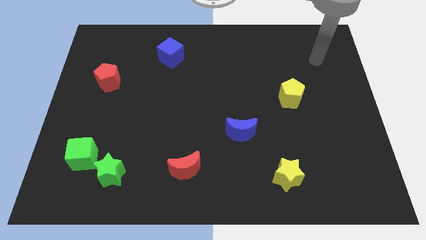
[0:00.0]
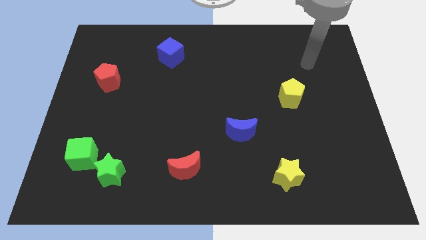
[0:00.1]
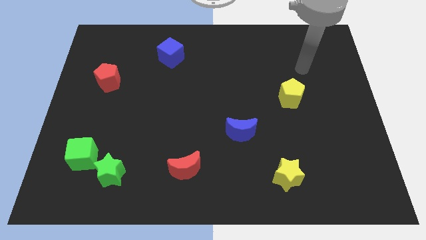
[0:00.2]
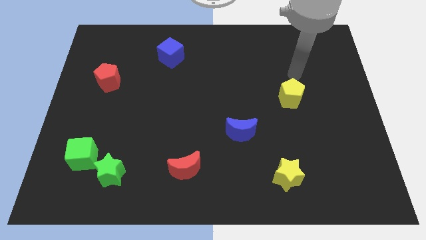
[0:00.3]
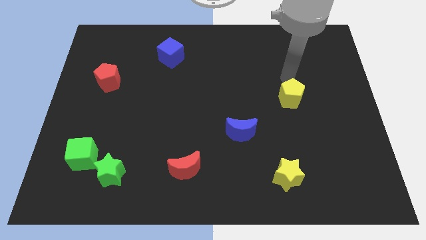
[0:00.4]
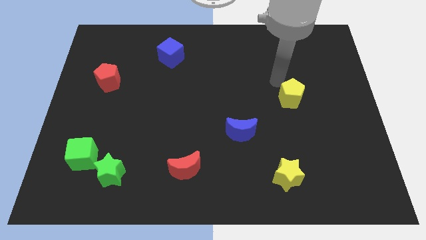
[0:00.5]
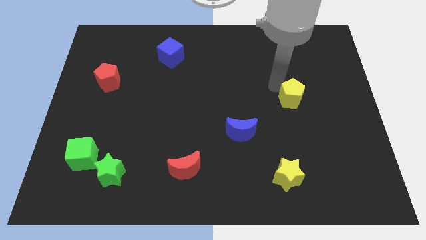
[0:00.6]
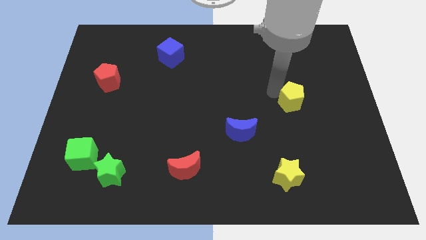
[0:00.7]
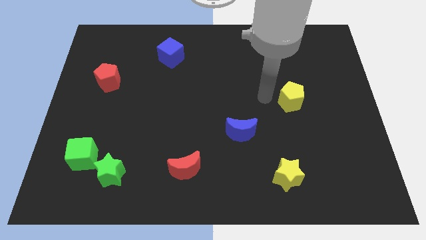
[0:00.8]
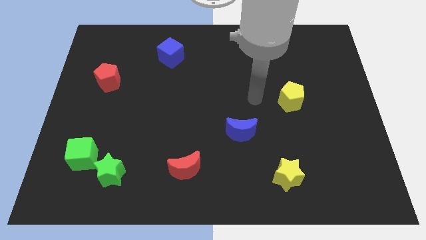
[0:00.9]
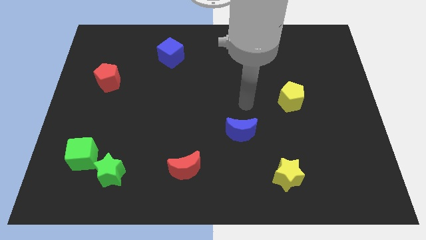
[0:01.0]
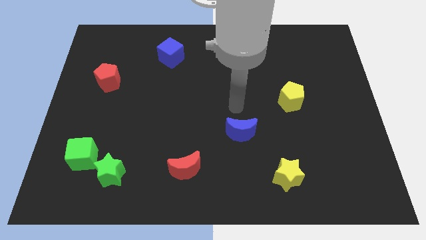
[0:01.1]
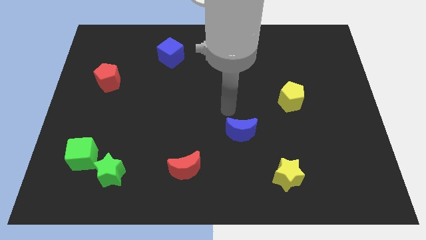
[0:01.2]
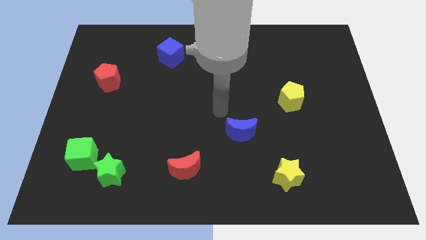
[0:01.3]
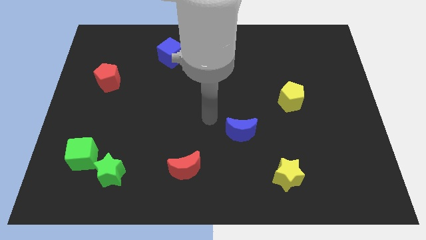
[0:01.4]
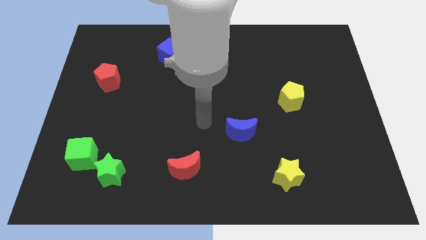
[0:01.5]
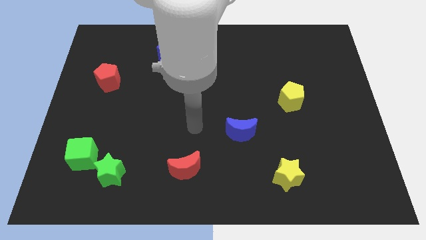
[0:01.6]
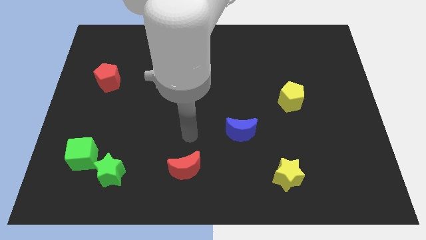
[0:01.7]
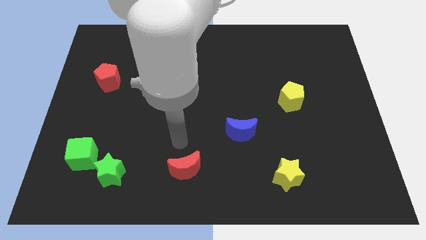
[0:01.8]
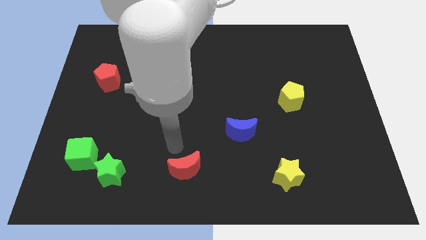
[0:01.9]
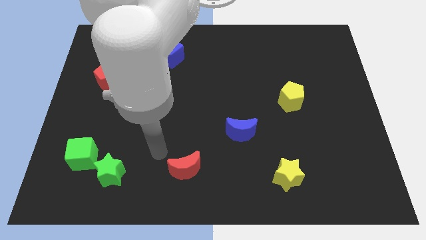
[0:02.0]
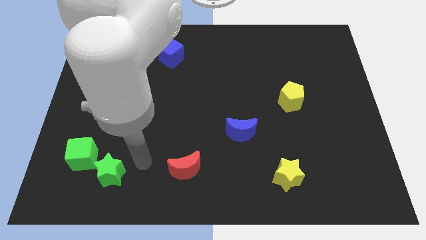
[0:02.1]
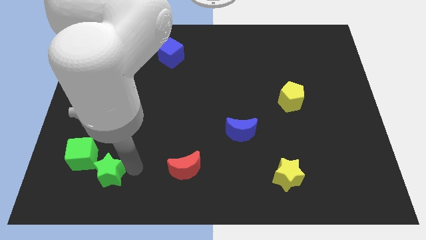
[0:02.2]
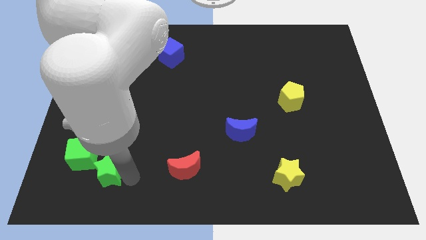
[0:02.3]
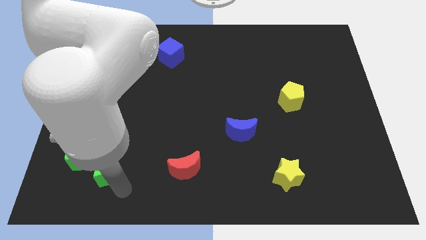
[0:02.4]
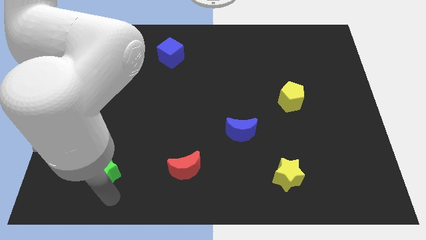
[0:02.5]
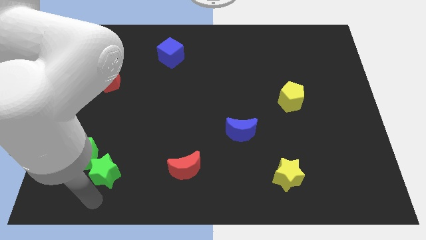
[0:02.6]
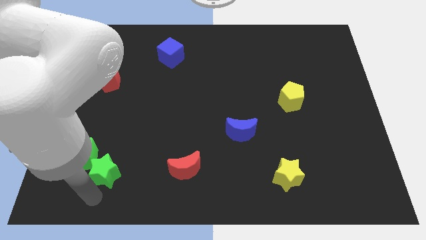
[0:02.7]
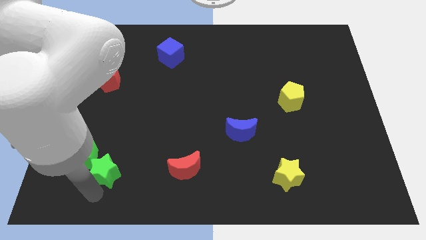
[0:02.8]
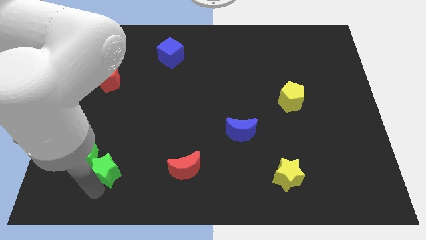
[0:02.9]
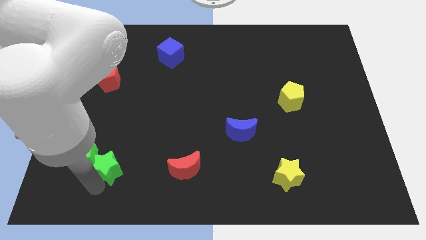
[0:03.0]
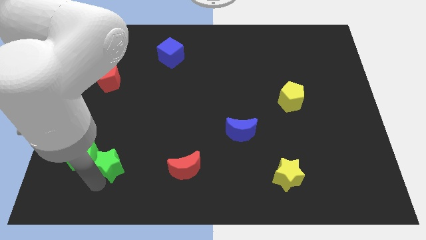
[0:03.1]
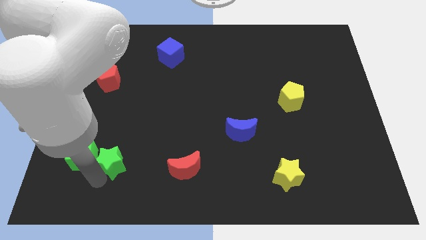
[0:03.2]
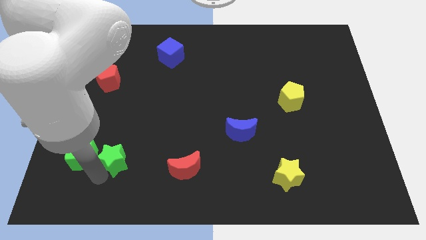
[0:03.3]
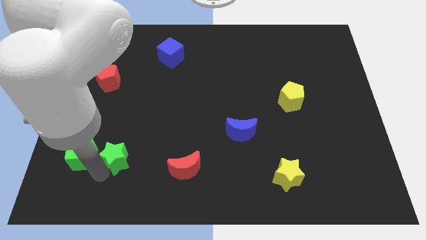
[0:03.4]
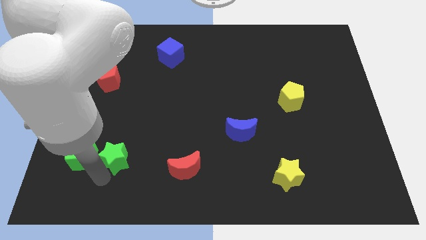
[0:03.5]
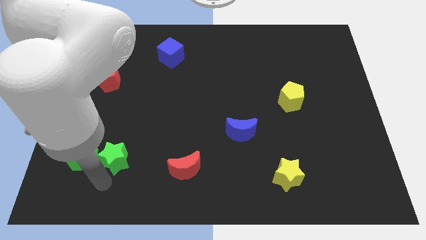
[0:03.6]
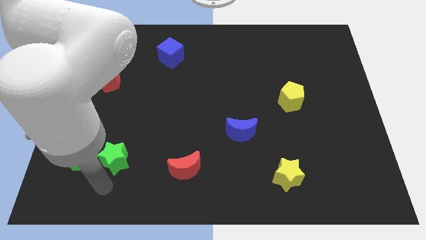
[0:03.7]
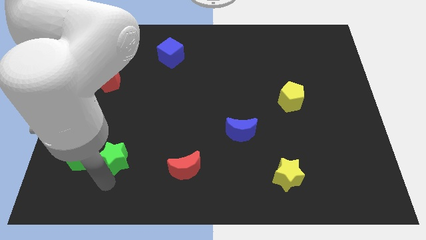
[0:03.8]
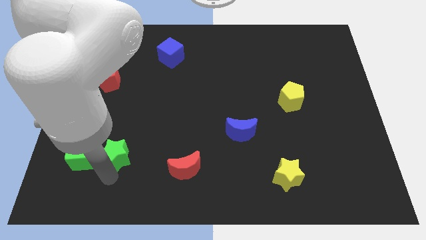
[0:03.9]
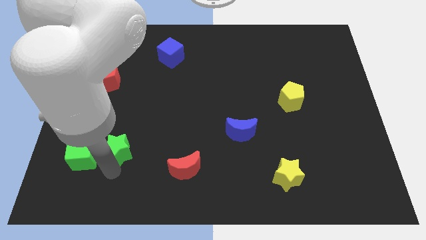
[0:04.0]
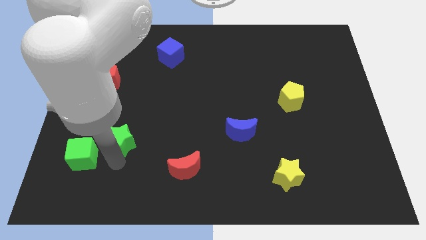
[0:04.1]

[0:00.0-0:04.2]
push the green star a little upwards

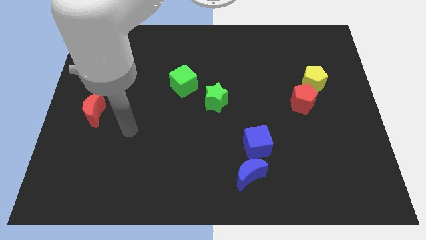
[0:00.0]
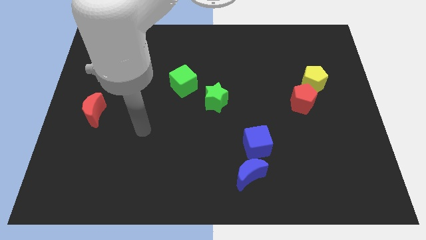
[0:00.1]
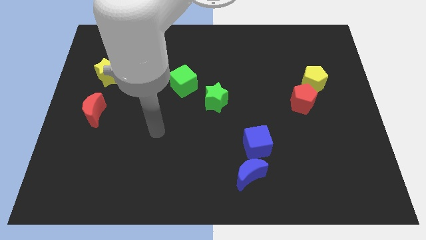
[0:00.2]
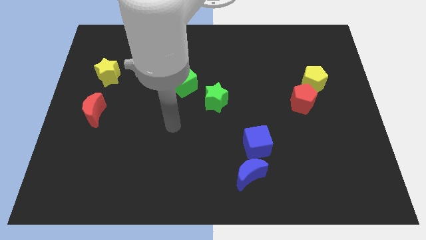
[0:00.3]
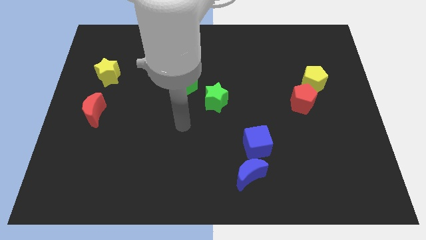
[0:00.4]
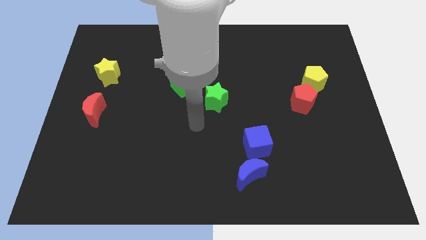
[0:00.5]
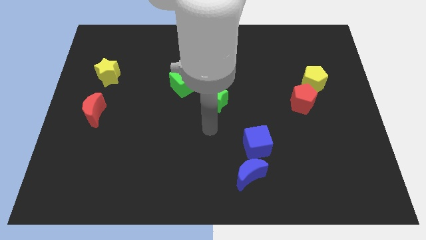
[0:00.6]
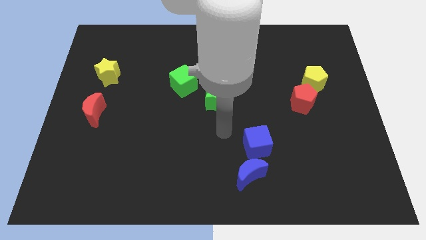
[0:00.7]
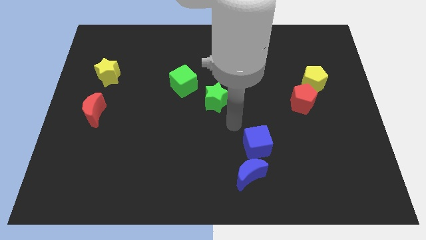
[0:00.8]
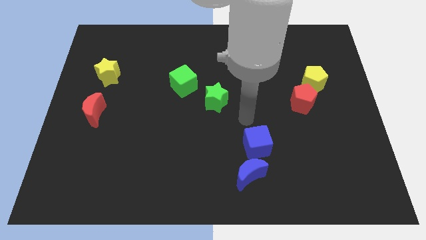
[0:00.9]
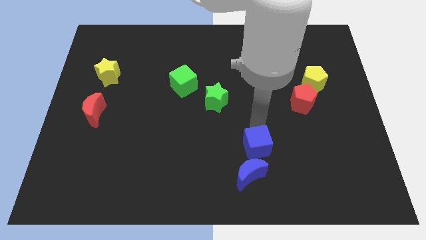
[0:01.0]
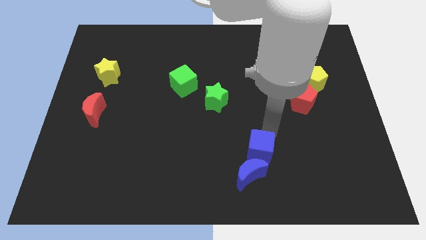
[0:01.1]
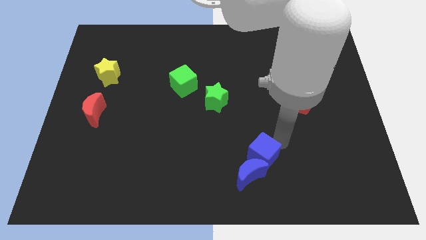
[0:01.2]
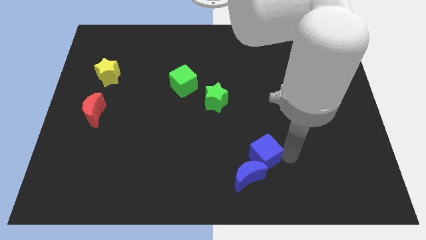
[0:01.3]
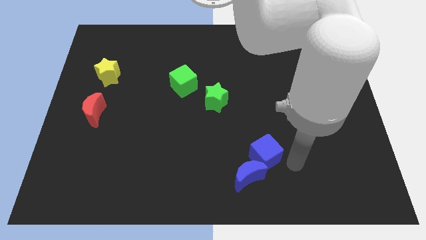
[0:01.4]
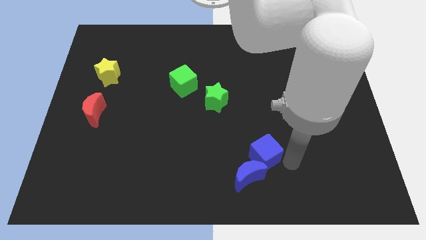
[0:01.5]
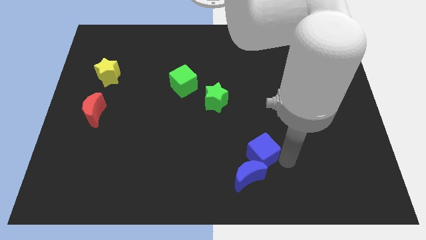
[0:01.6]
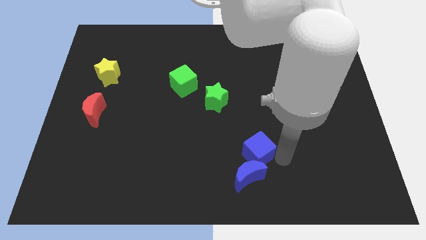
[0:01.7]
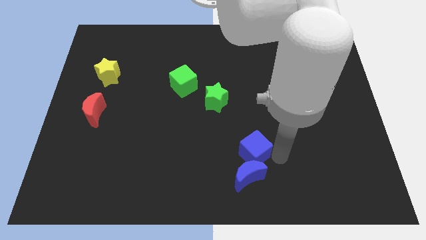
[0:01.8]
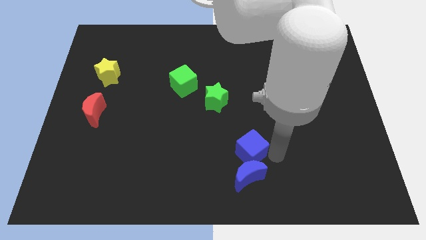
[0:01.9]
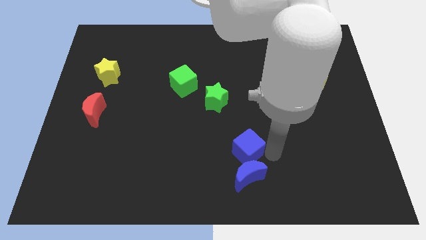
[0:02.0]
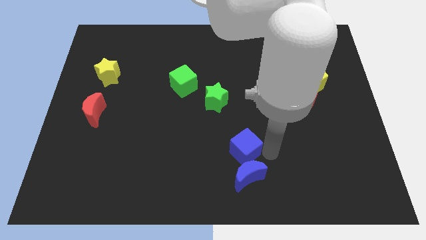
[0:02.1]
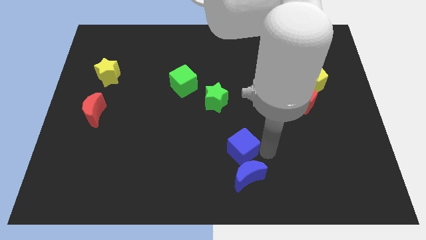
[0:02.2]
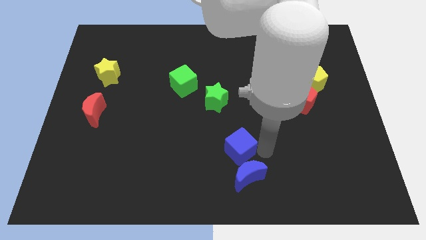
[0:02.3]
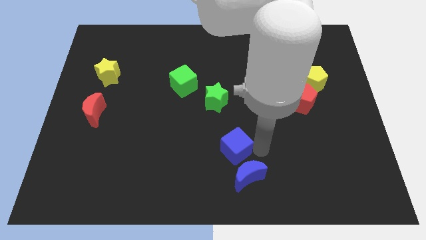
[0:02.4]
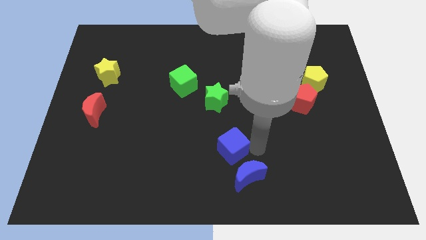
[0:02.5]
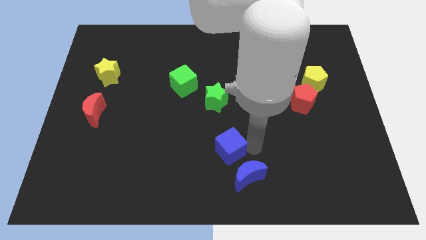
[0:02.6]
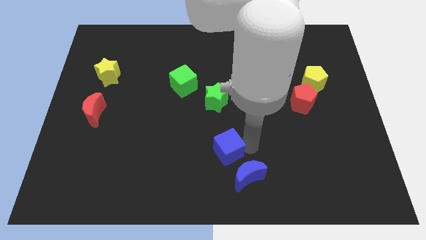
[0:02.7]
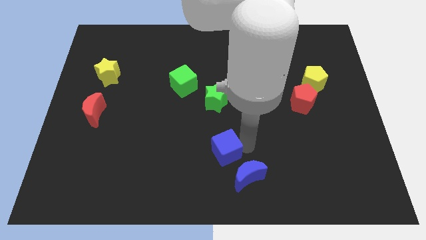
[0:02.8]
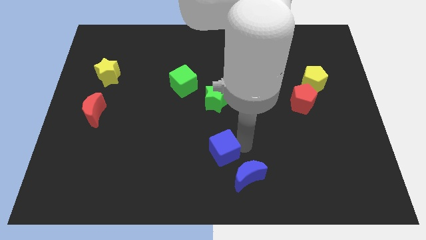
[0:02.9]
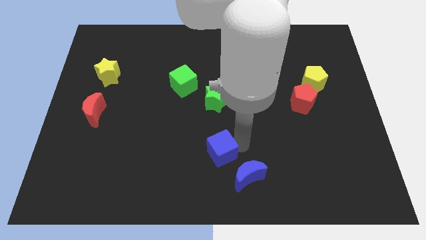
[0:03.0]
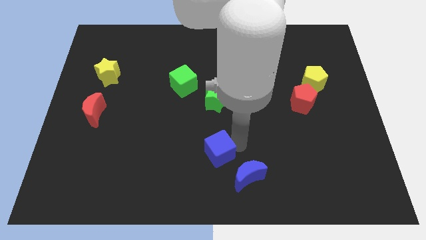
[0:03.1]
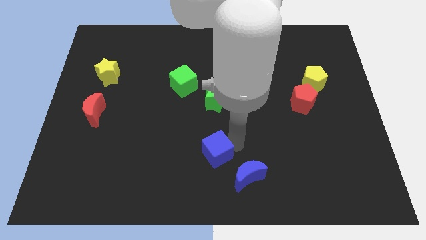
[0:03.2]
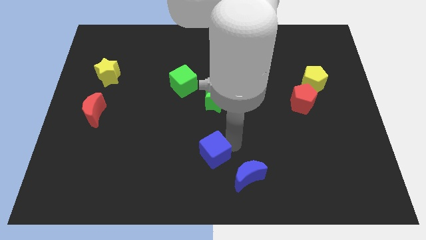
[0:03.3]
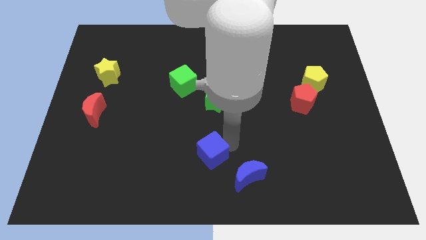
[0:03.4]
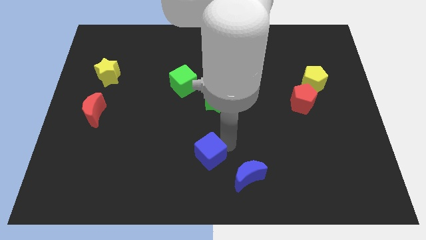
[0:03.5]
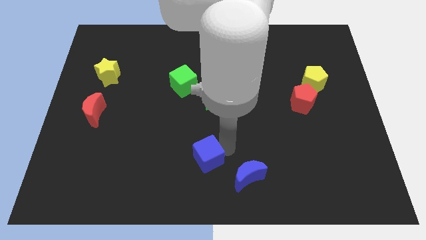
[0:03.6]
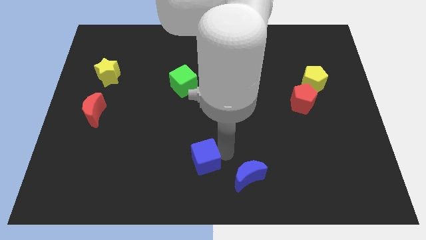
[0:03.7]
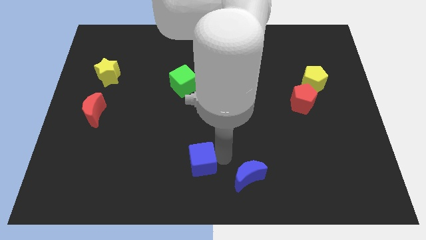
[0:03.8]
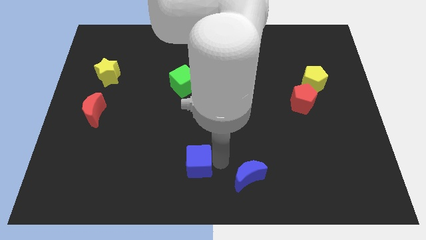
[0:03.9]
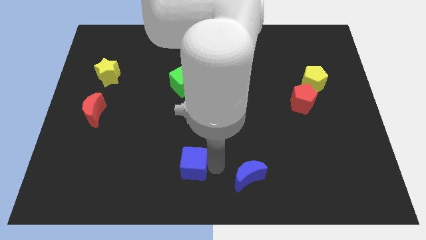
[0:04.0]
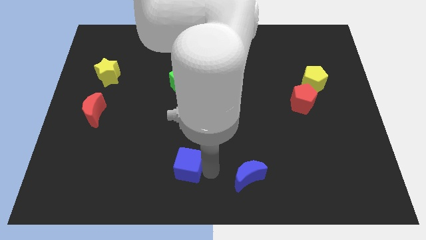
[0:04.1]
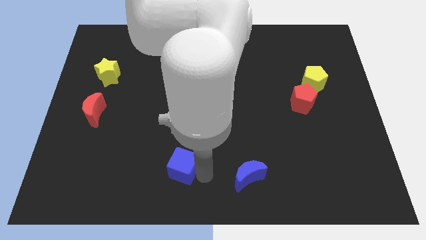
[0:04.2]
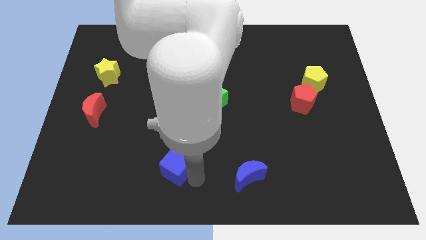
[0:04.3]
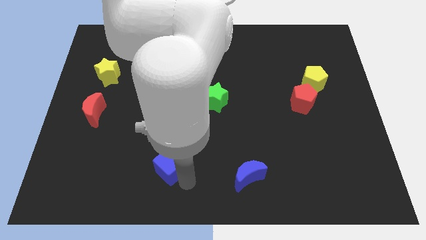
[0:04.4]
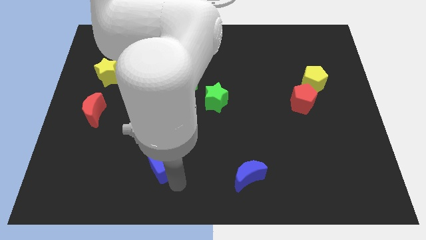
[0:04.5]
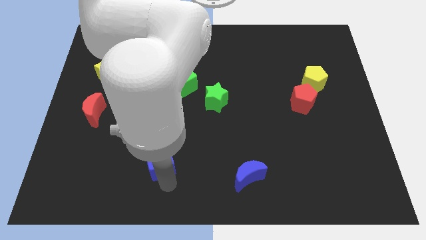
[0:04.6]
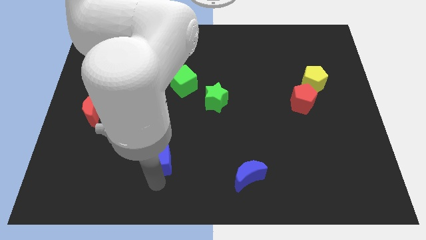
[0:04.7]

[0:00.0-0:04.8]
move the blue cube to the left
